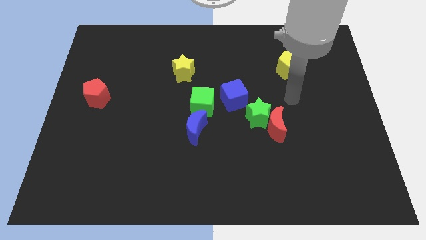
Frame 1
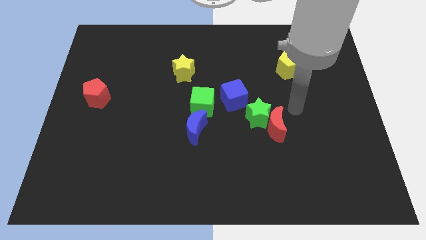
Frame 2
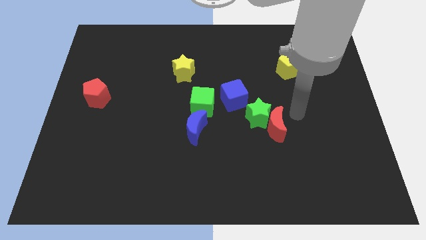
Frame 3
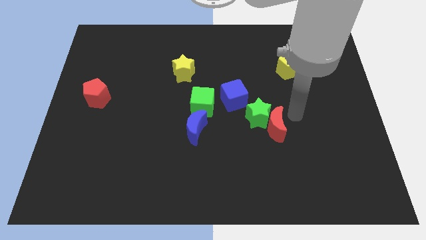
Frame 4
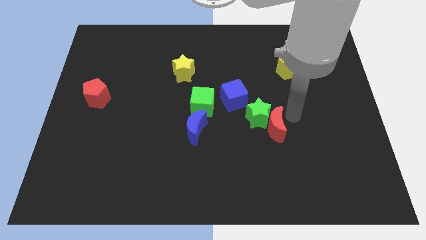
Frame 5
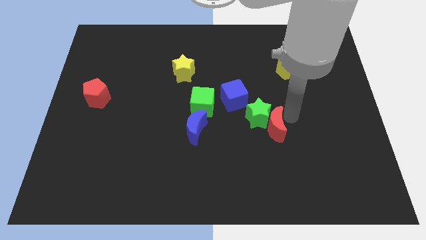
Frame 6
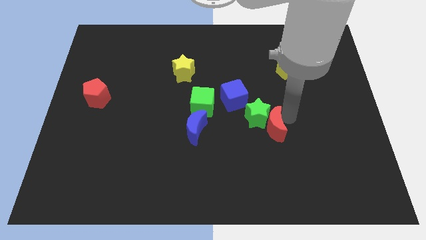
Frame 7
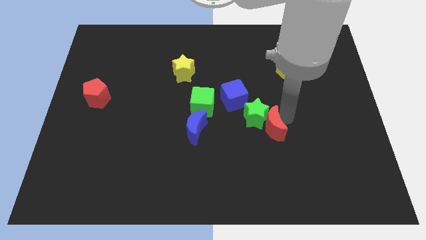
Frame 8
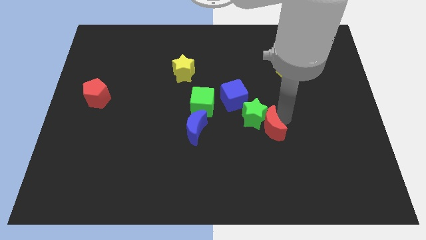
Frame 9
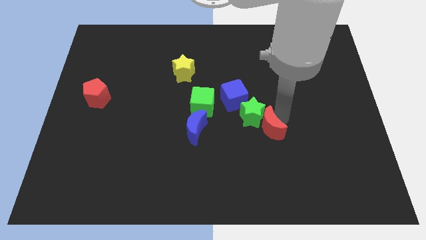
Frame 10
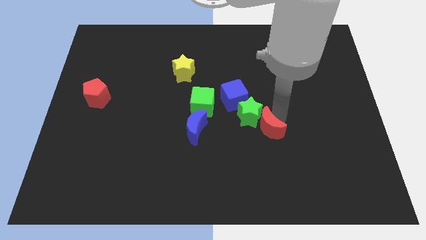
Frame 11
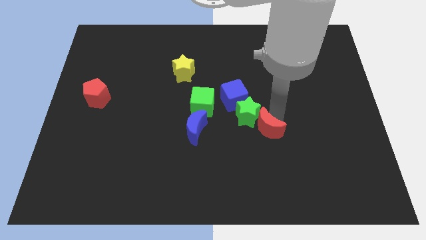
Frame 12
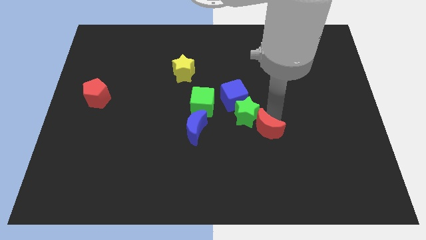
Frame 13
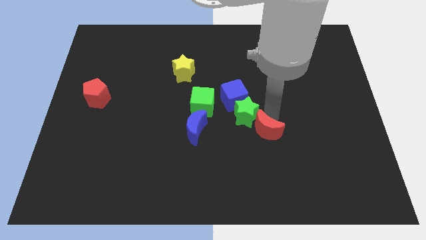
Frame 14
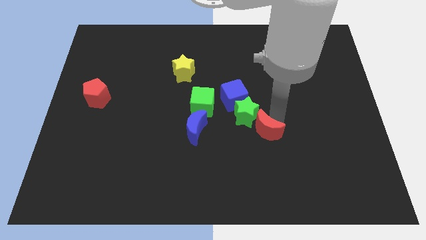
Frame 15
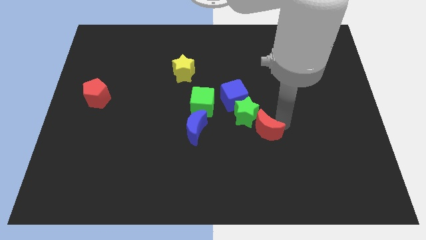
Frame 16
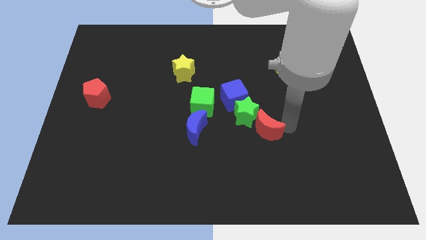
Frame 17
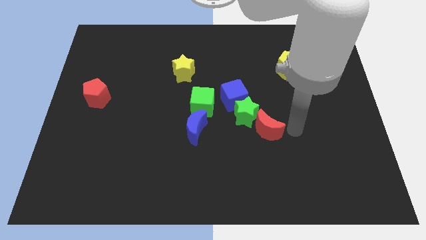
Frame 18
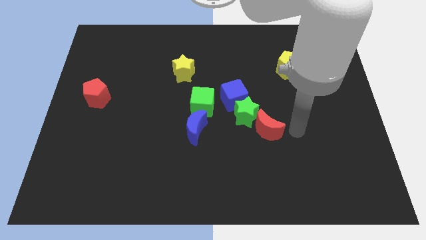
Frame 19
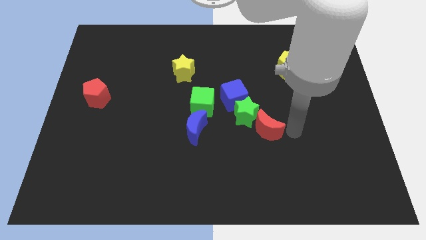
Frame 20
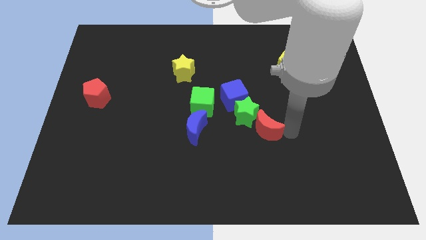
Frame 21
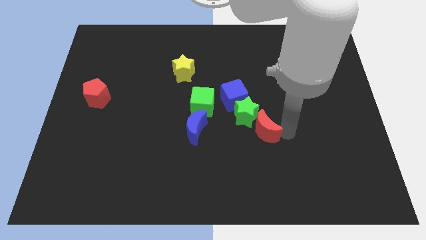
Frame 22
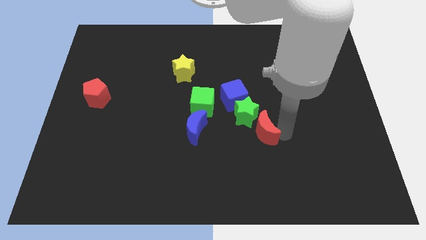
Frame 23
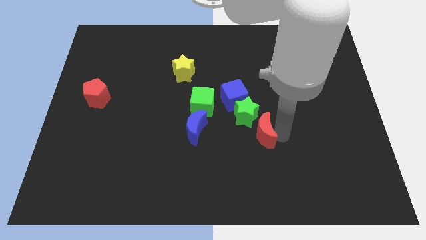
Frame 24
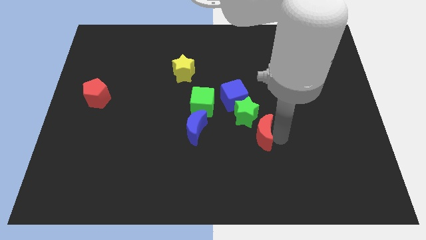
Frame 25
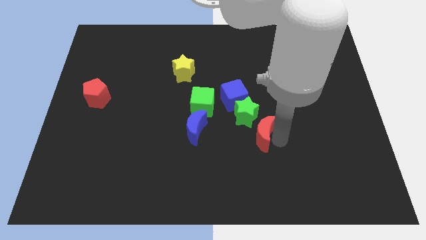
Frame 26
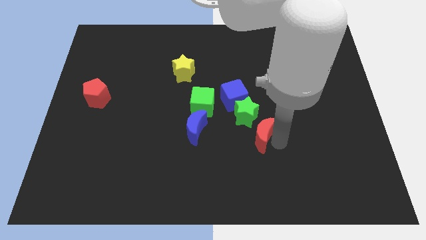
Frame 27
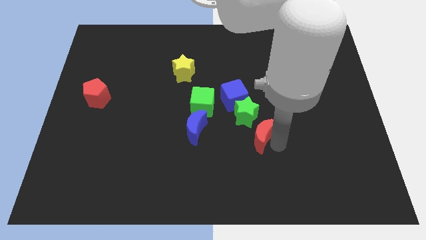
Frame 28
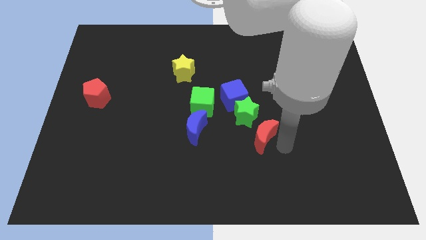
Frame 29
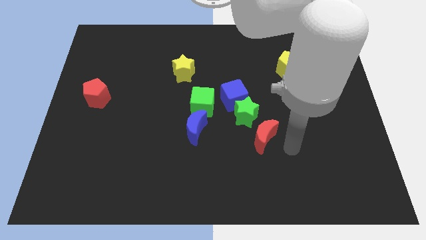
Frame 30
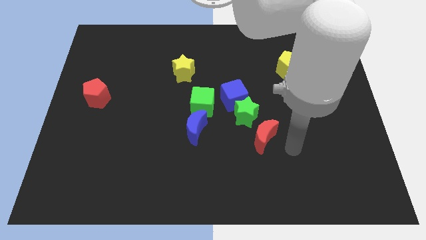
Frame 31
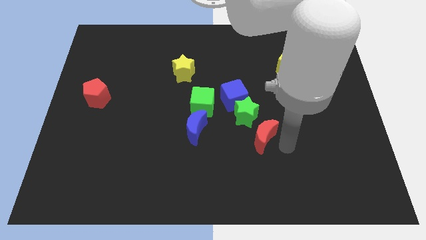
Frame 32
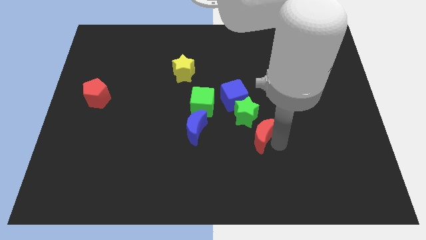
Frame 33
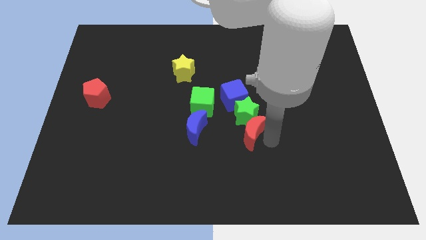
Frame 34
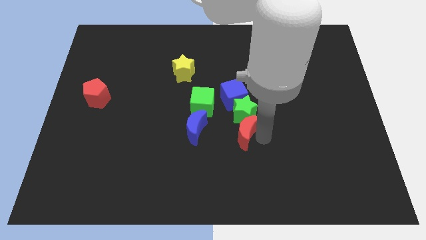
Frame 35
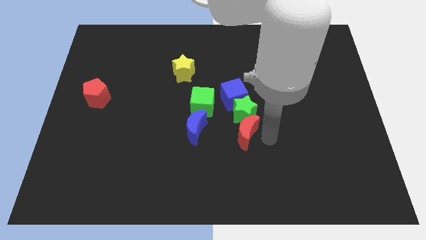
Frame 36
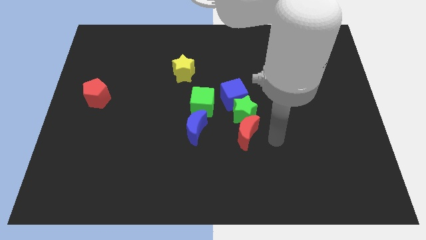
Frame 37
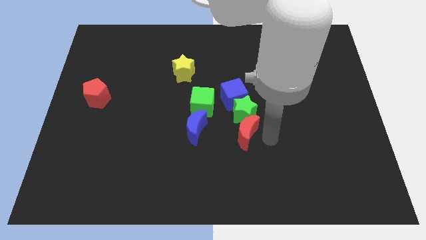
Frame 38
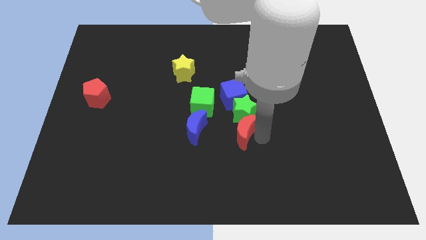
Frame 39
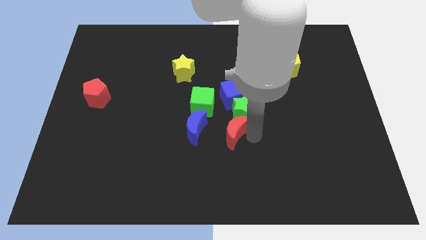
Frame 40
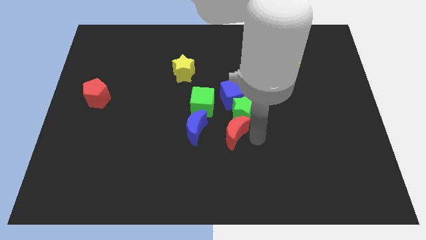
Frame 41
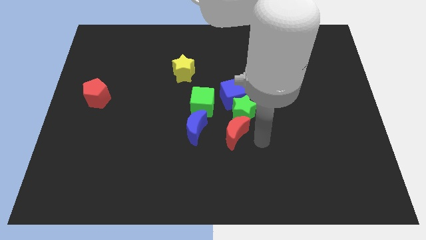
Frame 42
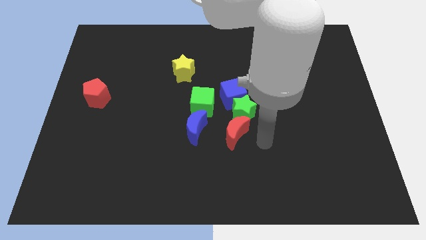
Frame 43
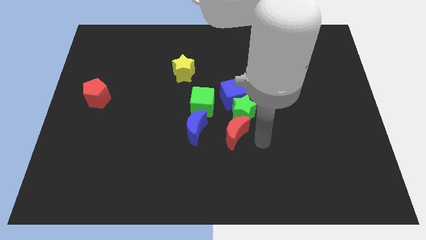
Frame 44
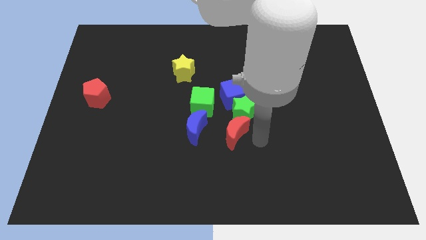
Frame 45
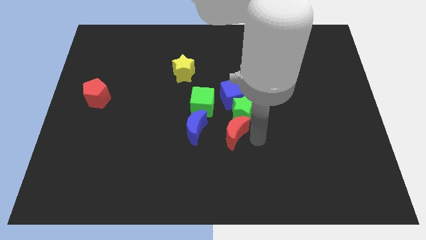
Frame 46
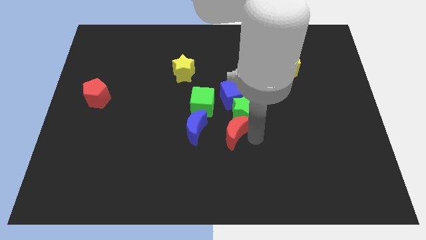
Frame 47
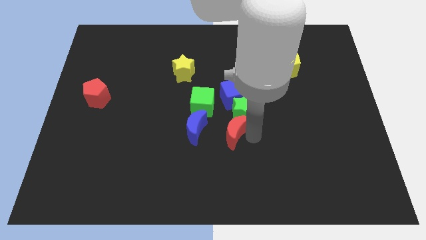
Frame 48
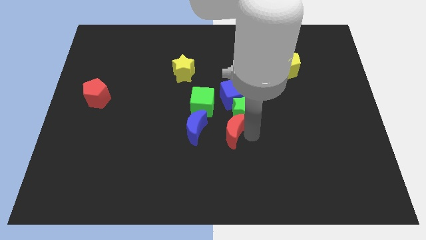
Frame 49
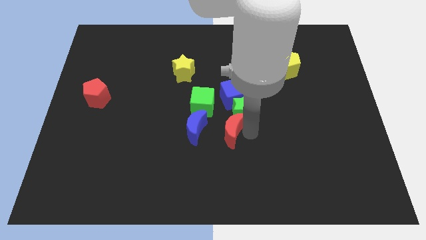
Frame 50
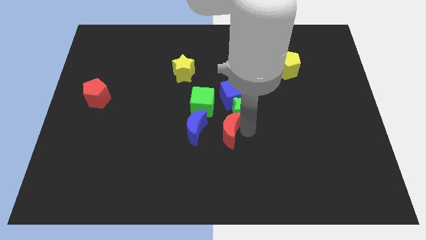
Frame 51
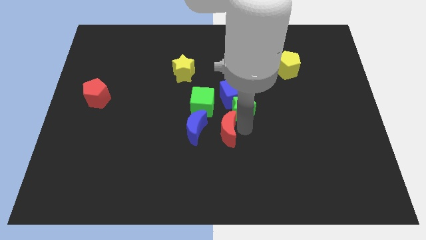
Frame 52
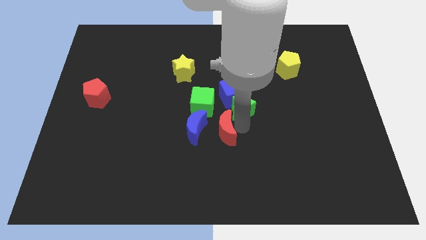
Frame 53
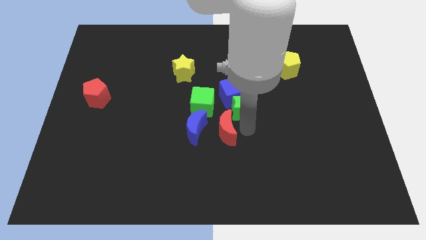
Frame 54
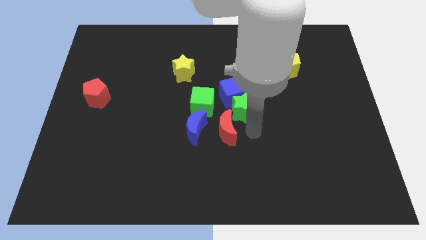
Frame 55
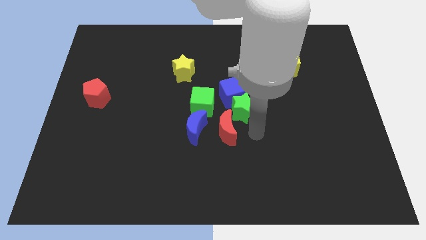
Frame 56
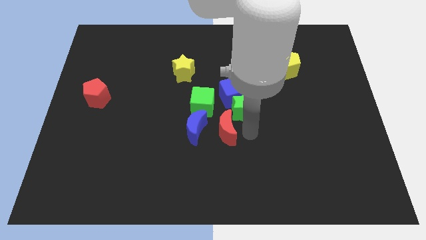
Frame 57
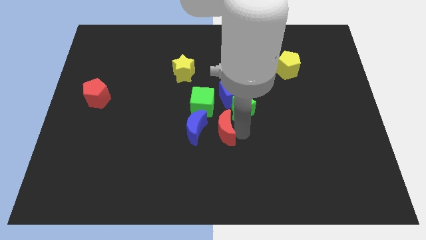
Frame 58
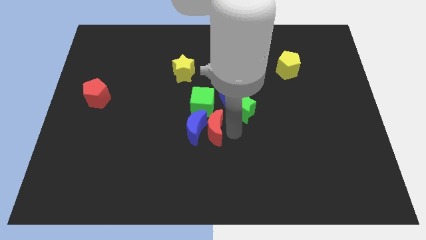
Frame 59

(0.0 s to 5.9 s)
push the red moon next to the blue moon

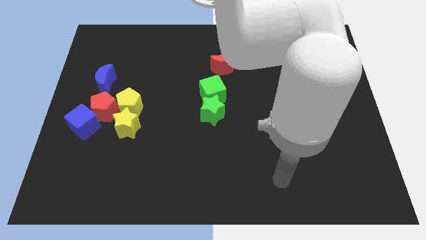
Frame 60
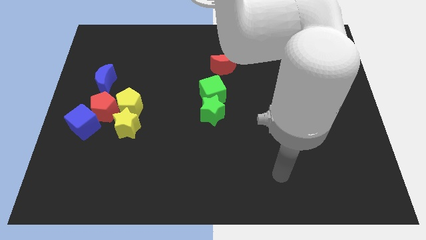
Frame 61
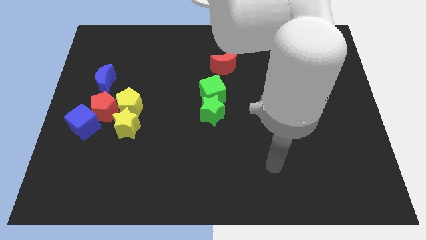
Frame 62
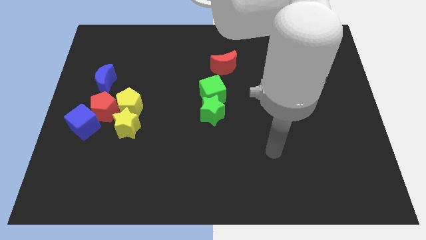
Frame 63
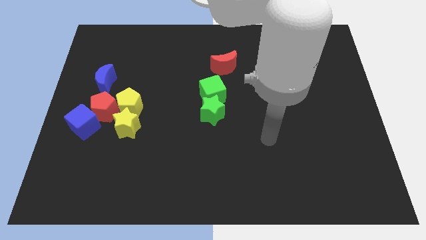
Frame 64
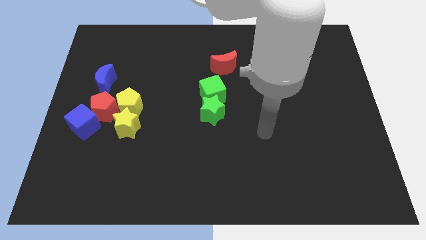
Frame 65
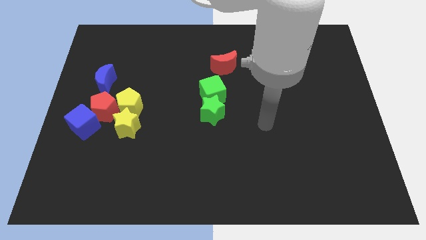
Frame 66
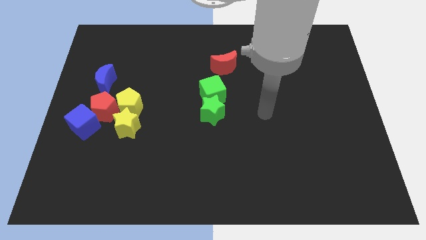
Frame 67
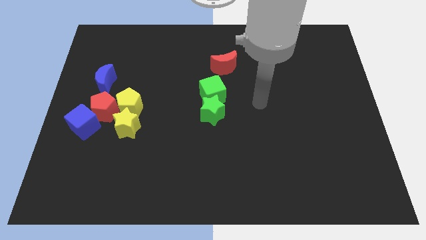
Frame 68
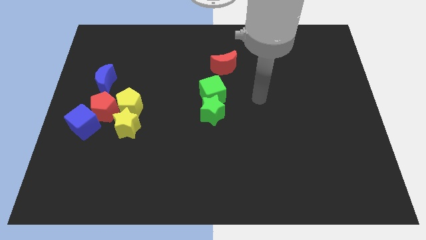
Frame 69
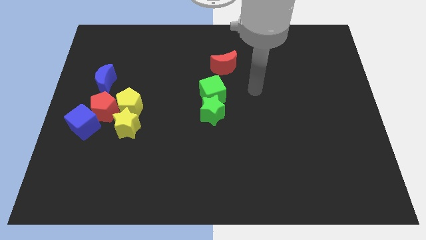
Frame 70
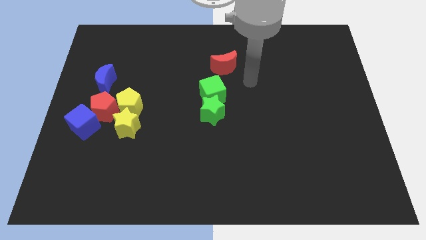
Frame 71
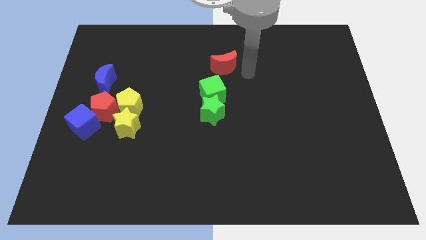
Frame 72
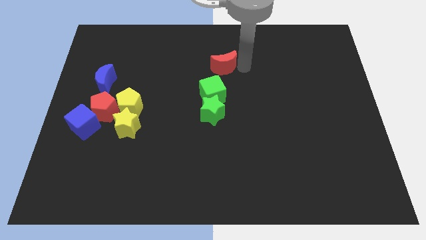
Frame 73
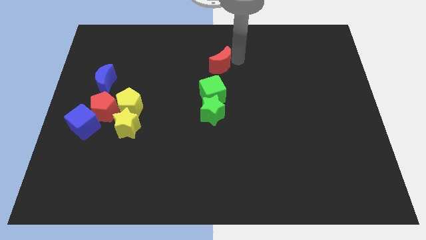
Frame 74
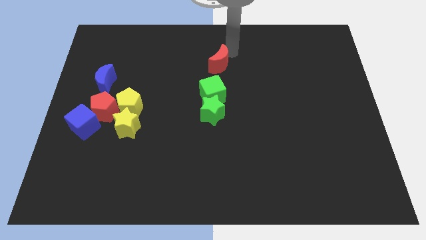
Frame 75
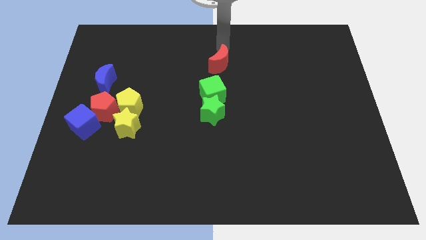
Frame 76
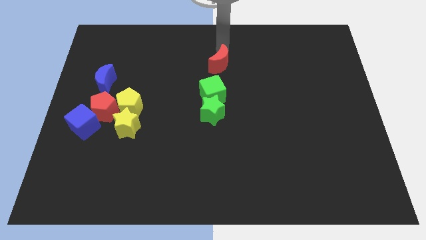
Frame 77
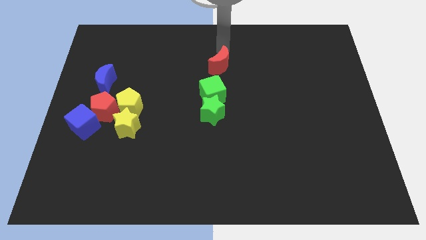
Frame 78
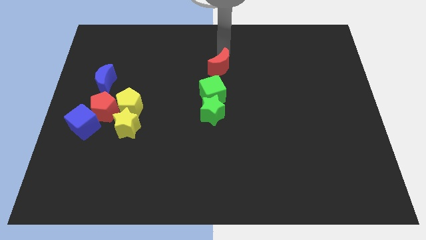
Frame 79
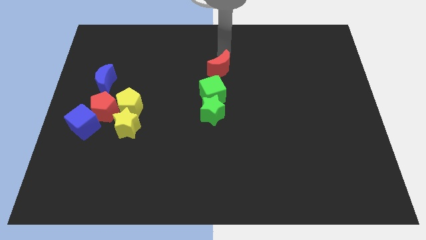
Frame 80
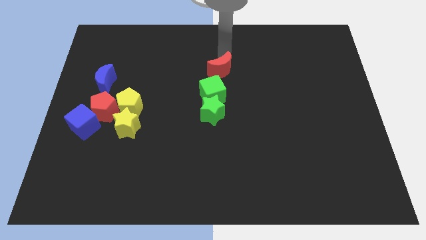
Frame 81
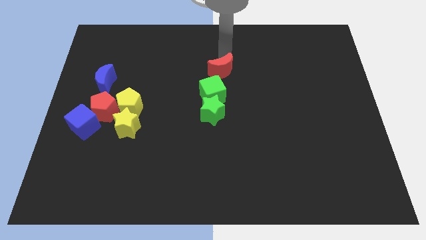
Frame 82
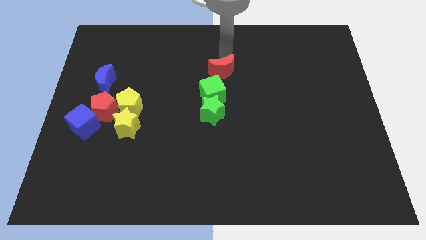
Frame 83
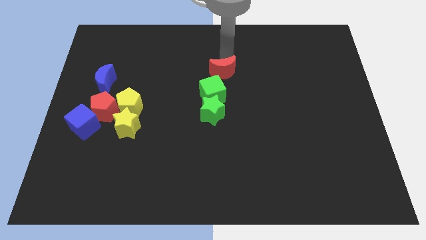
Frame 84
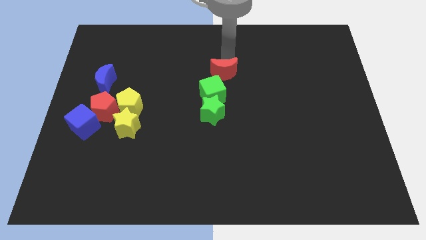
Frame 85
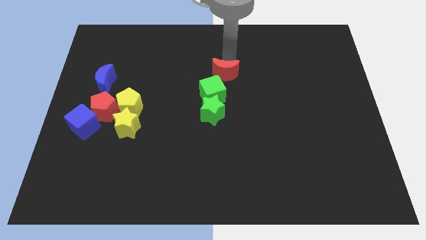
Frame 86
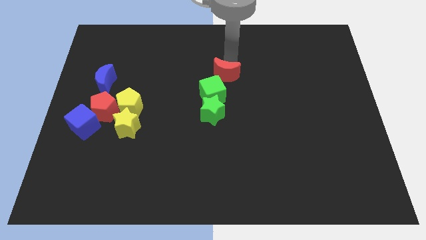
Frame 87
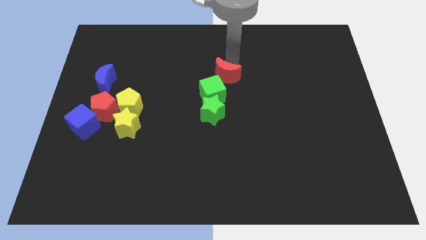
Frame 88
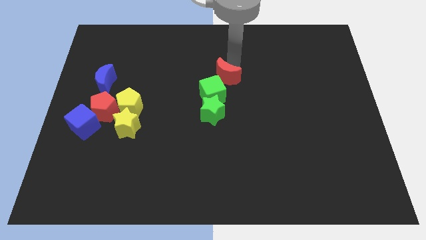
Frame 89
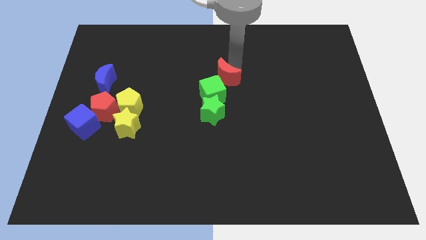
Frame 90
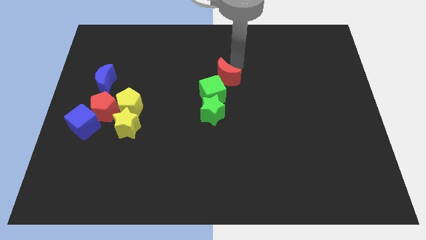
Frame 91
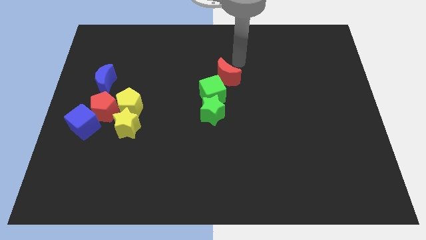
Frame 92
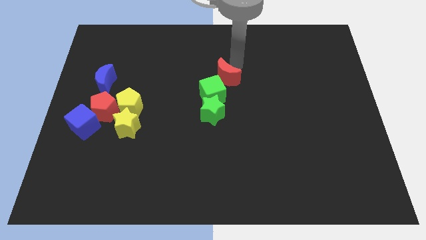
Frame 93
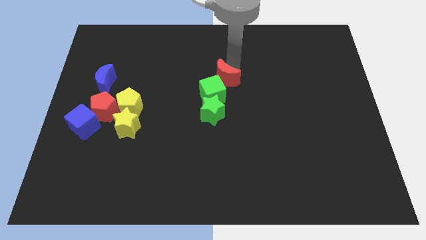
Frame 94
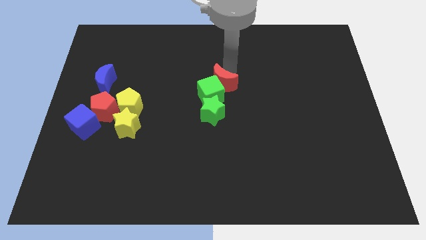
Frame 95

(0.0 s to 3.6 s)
push the red moon next to the green cube
